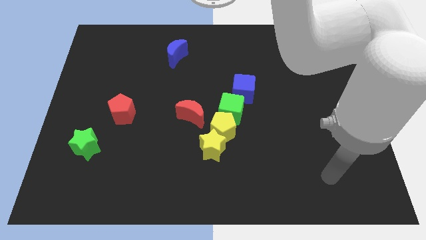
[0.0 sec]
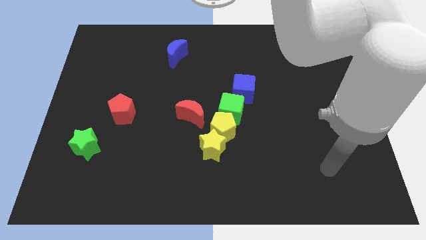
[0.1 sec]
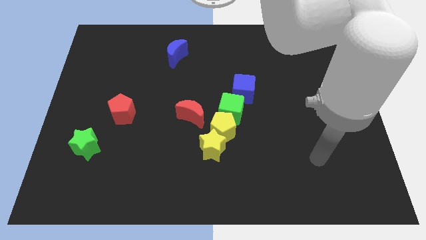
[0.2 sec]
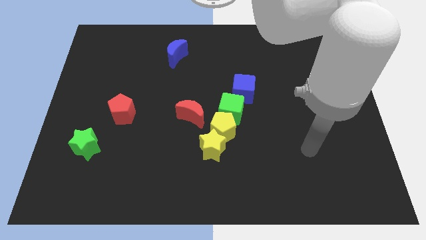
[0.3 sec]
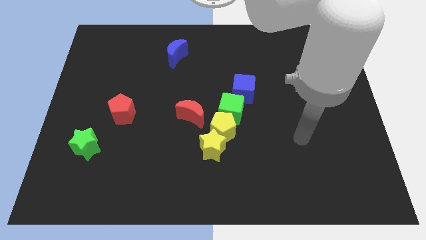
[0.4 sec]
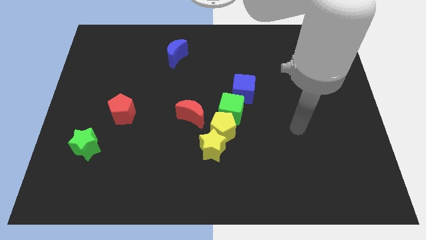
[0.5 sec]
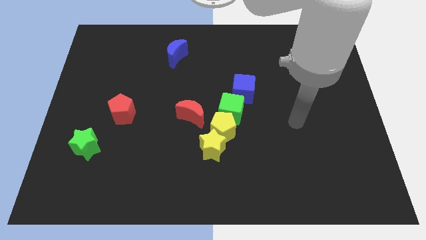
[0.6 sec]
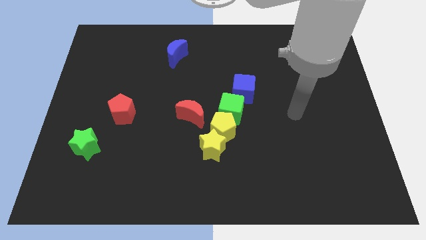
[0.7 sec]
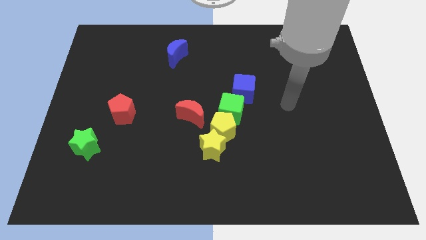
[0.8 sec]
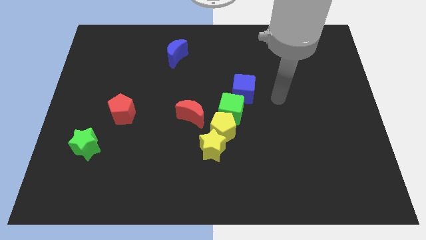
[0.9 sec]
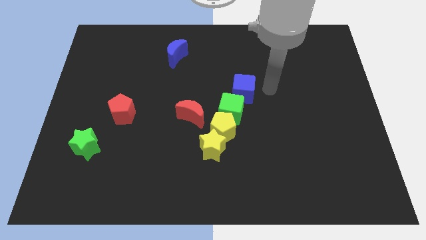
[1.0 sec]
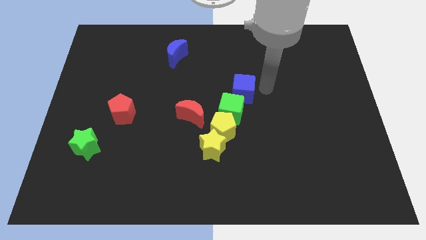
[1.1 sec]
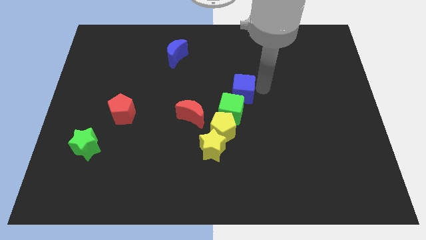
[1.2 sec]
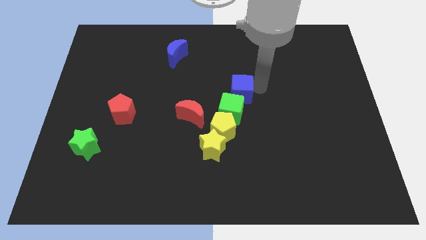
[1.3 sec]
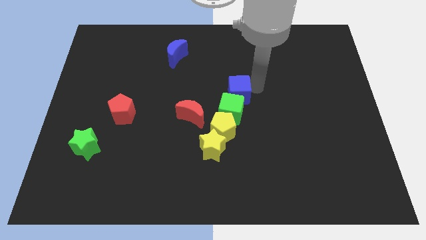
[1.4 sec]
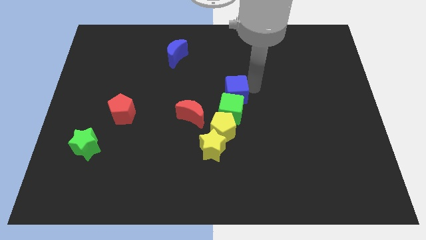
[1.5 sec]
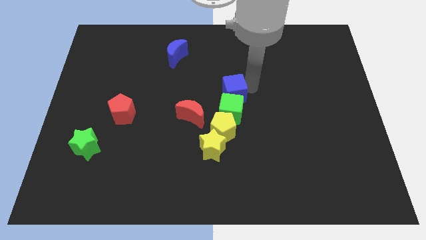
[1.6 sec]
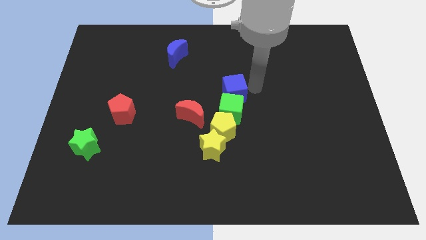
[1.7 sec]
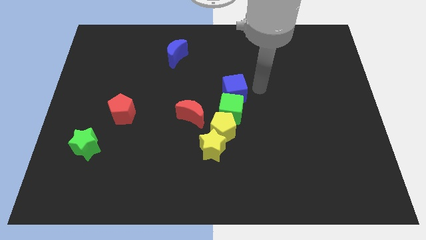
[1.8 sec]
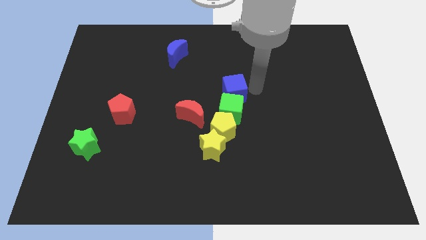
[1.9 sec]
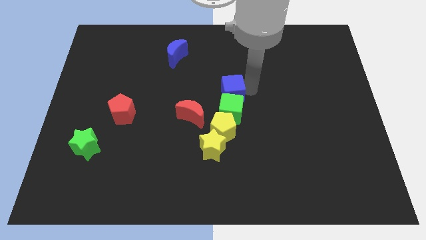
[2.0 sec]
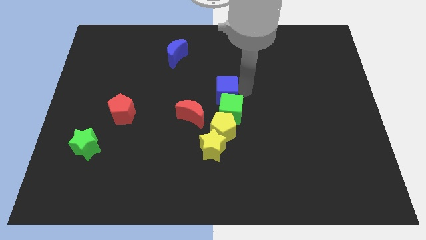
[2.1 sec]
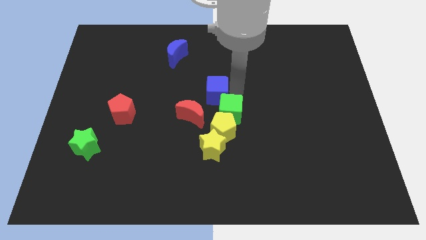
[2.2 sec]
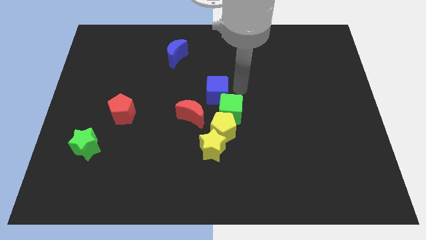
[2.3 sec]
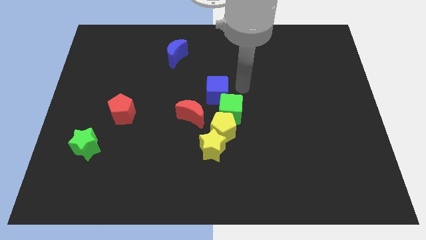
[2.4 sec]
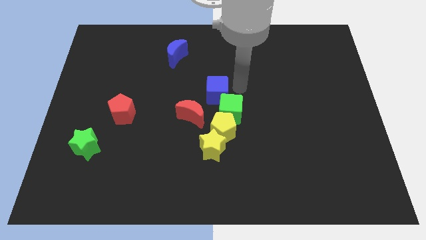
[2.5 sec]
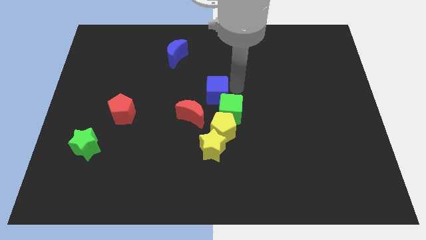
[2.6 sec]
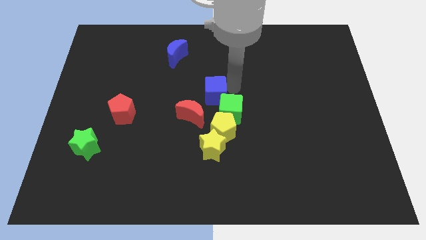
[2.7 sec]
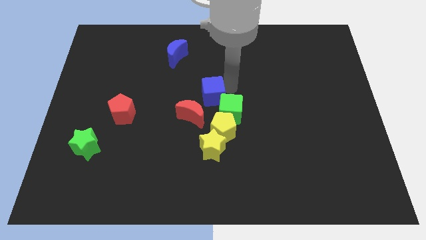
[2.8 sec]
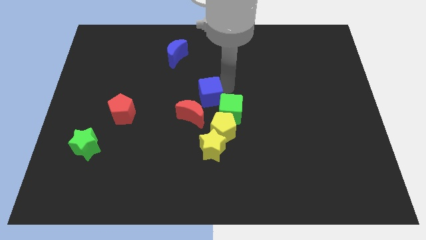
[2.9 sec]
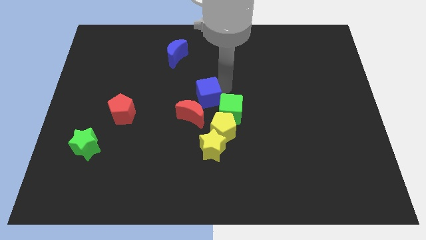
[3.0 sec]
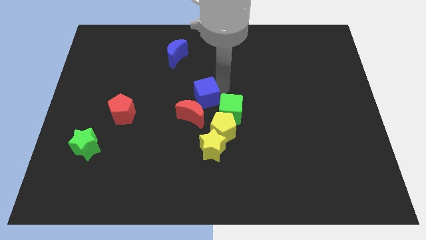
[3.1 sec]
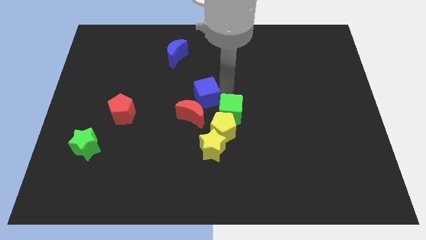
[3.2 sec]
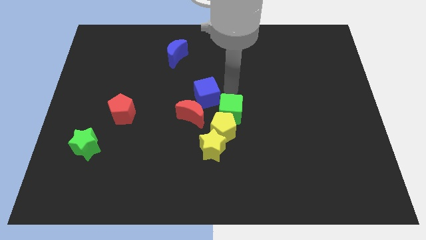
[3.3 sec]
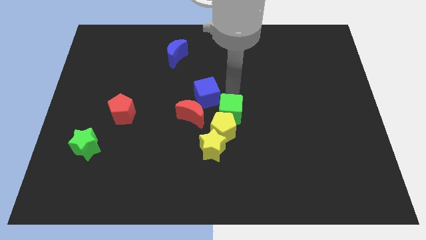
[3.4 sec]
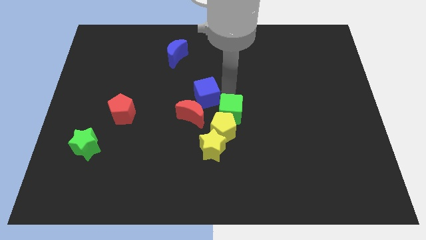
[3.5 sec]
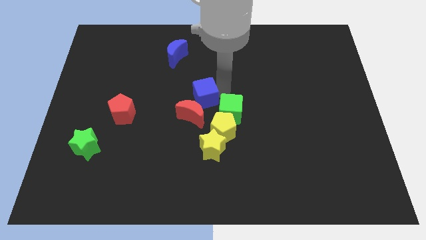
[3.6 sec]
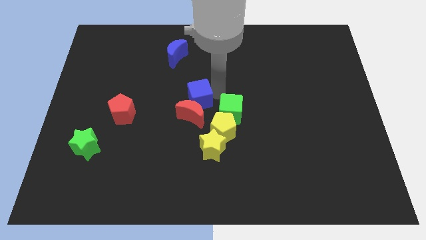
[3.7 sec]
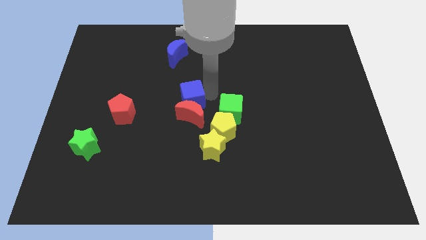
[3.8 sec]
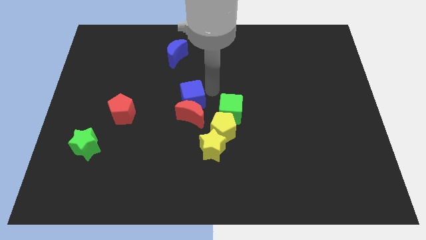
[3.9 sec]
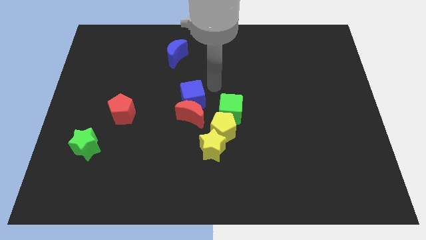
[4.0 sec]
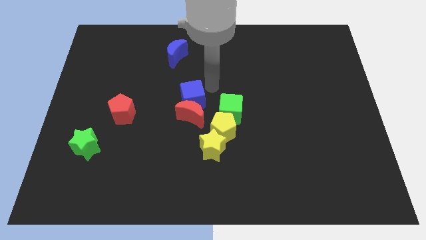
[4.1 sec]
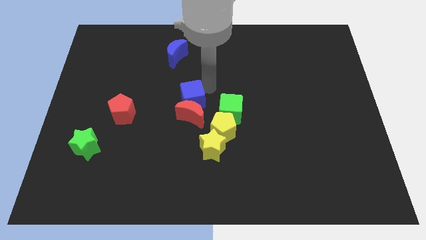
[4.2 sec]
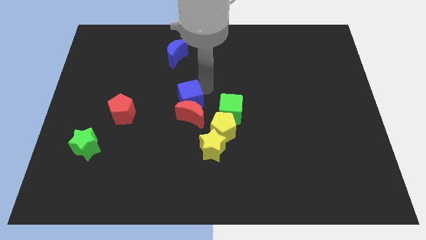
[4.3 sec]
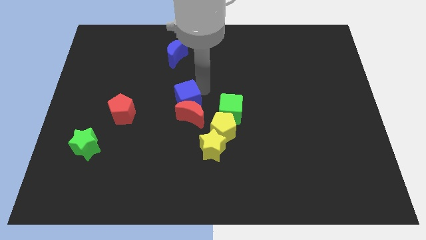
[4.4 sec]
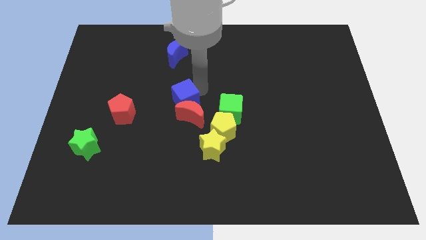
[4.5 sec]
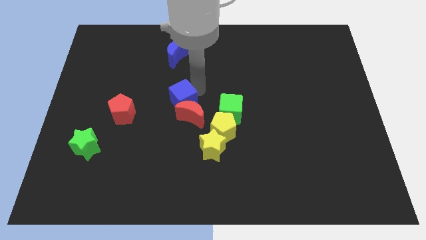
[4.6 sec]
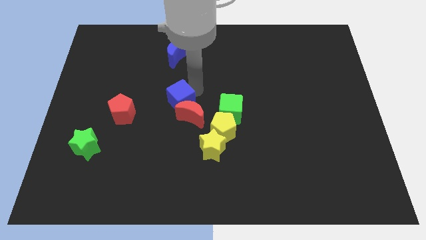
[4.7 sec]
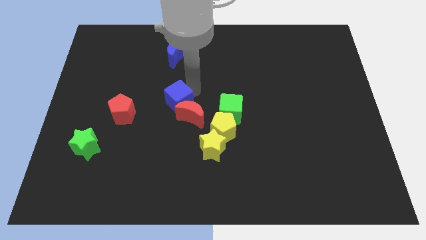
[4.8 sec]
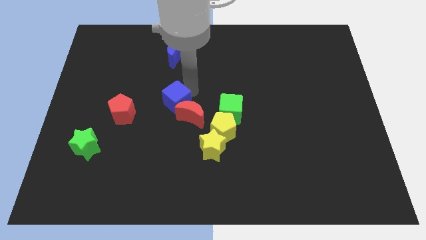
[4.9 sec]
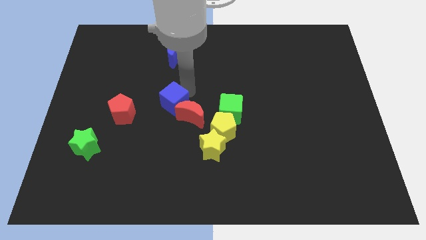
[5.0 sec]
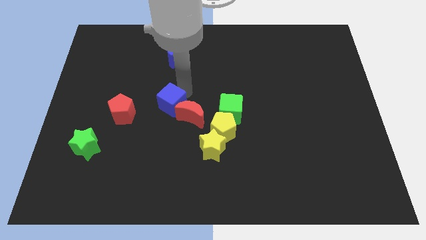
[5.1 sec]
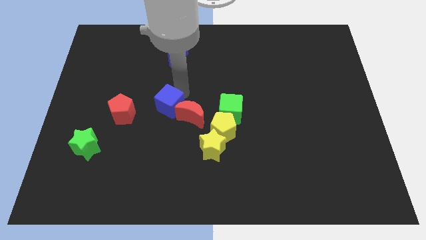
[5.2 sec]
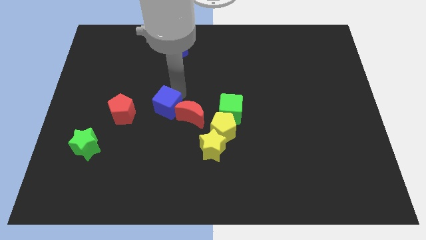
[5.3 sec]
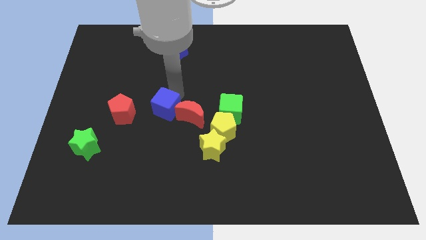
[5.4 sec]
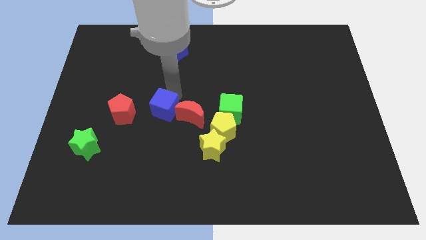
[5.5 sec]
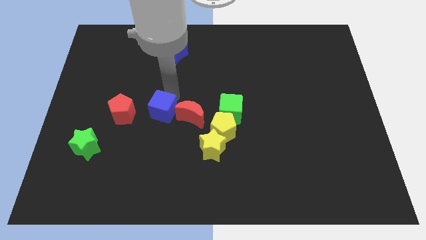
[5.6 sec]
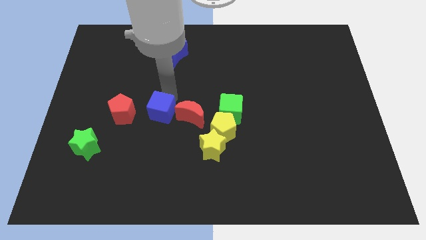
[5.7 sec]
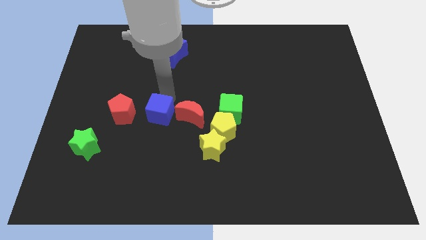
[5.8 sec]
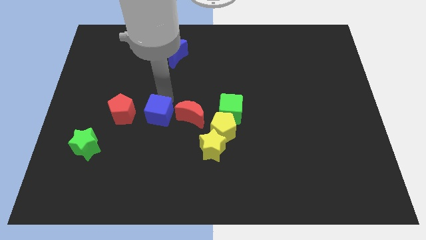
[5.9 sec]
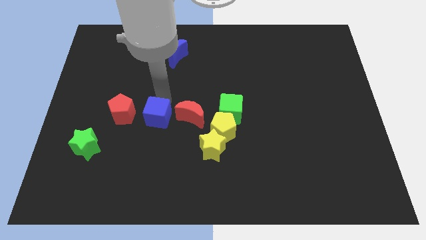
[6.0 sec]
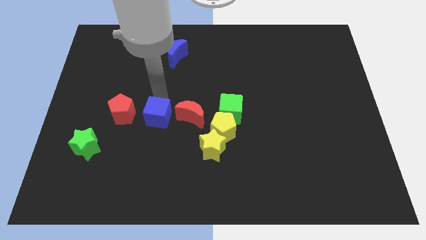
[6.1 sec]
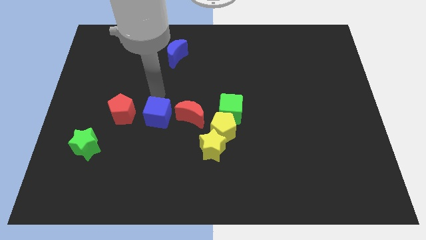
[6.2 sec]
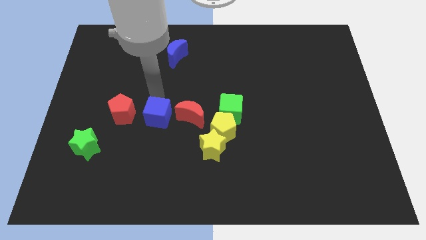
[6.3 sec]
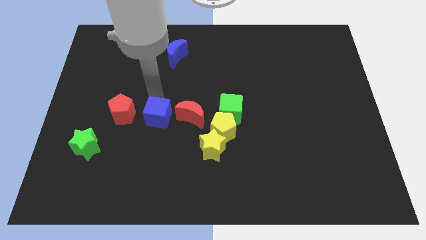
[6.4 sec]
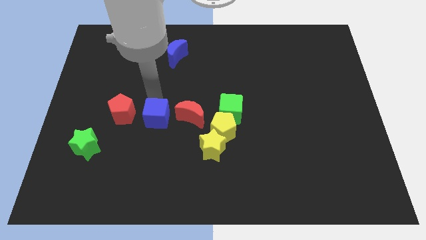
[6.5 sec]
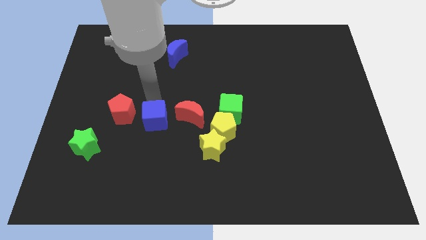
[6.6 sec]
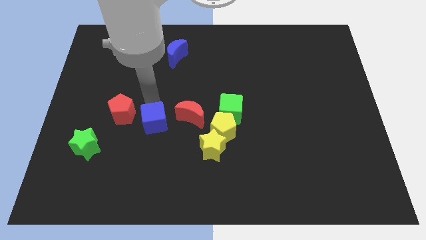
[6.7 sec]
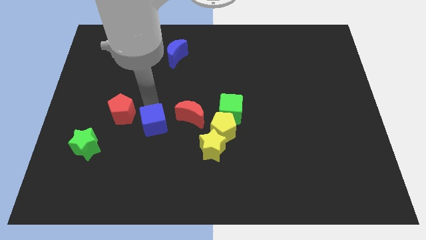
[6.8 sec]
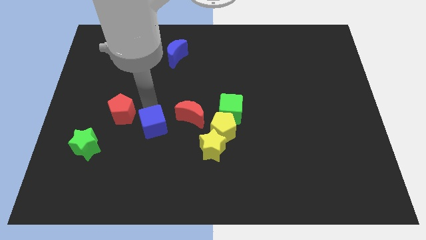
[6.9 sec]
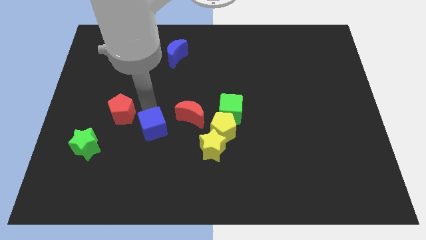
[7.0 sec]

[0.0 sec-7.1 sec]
slide the blue cube downwards and then left

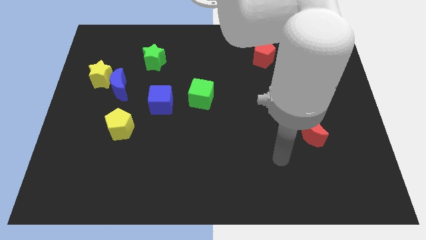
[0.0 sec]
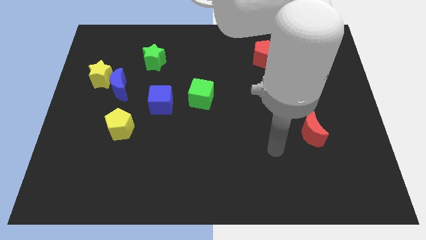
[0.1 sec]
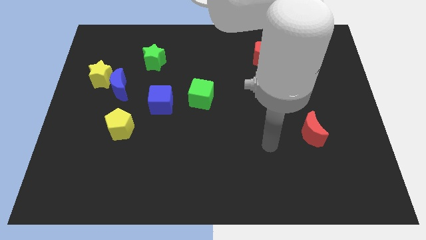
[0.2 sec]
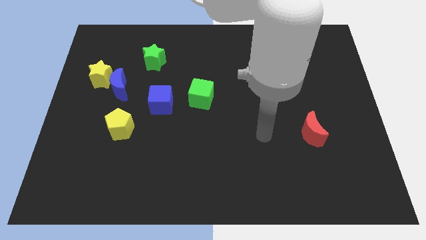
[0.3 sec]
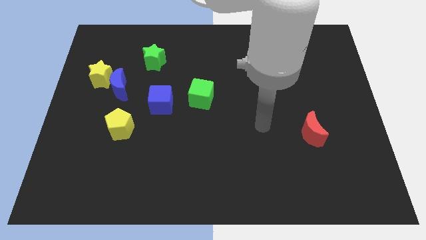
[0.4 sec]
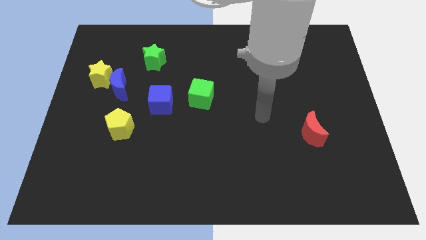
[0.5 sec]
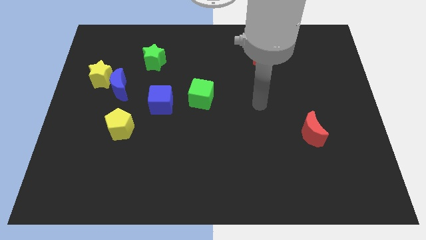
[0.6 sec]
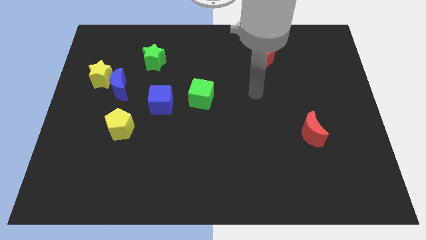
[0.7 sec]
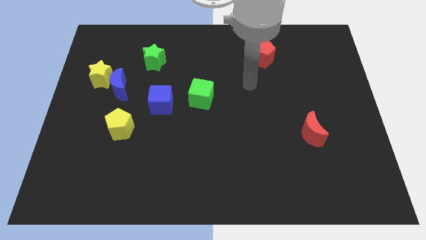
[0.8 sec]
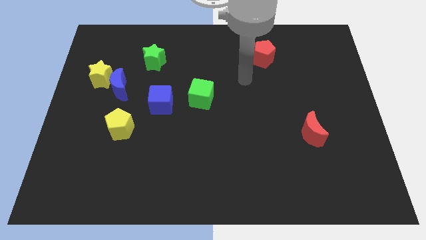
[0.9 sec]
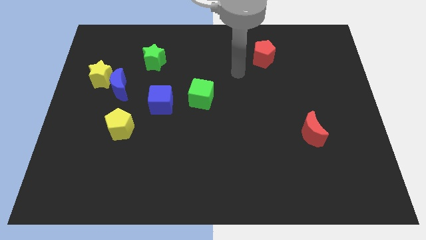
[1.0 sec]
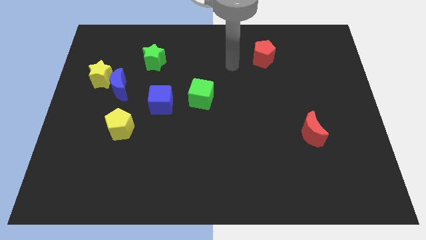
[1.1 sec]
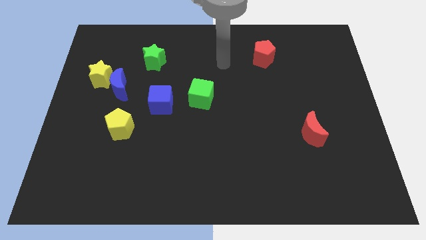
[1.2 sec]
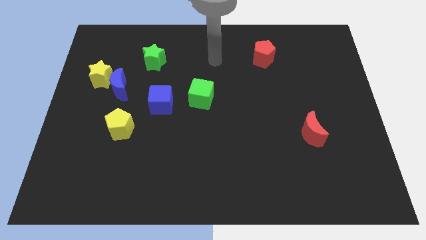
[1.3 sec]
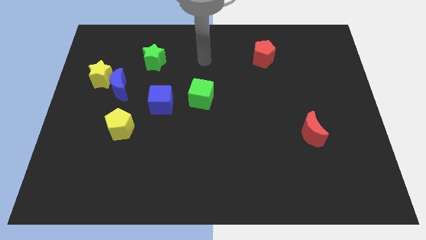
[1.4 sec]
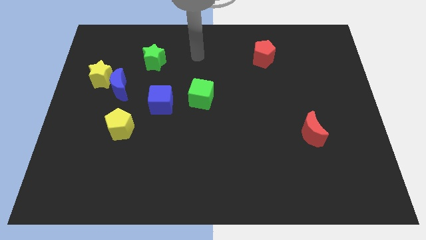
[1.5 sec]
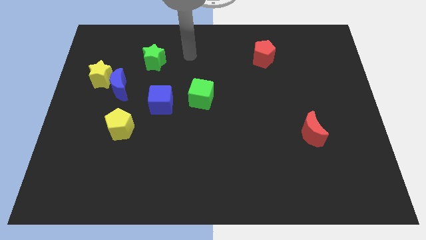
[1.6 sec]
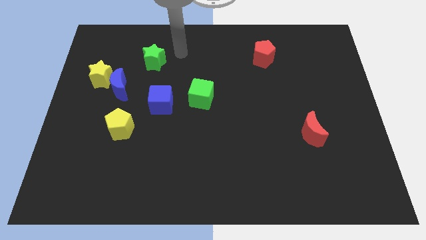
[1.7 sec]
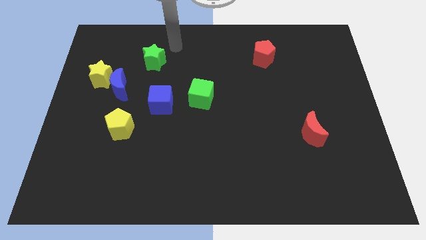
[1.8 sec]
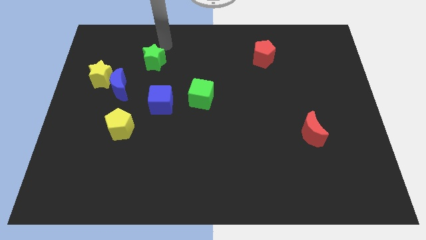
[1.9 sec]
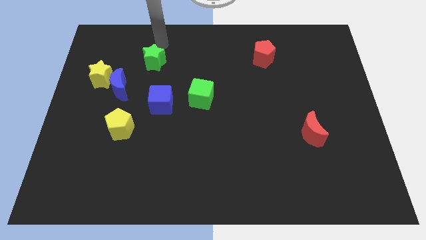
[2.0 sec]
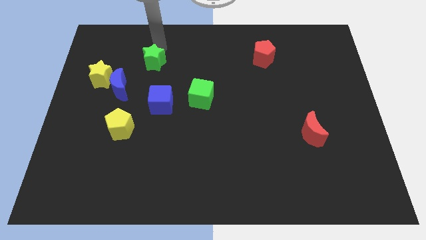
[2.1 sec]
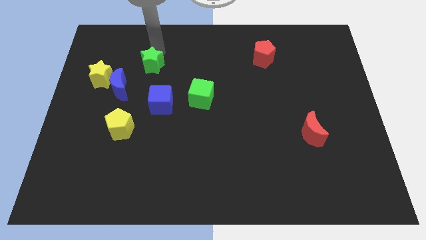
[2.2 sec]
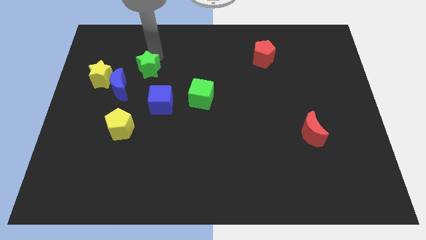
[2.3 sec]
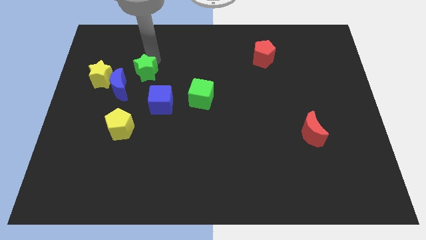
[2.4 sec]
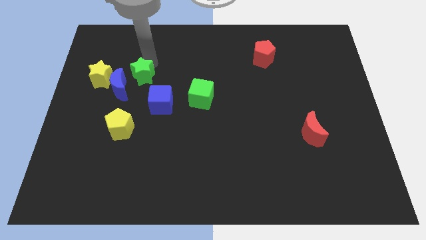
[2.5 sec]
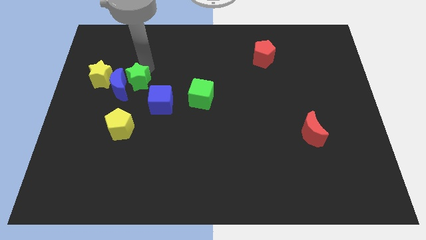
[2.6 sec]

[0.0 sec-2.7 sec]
slightly push the green star diagonally down and left
